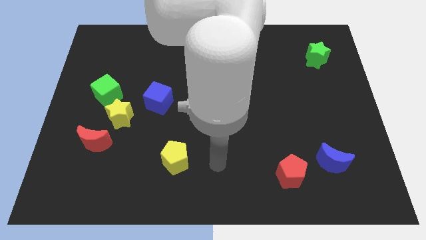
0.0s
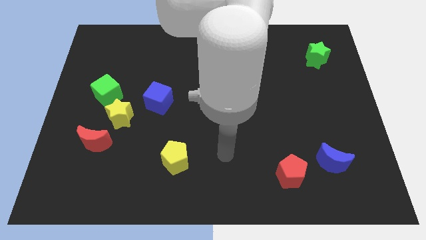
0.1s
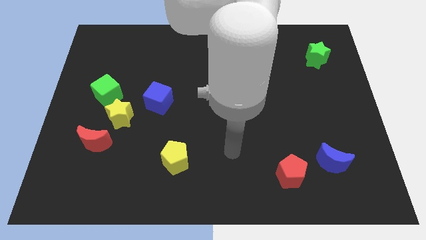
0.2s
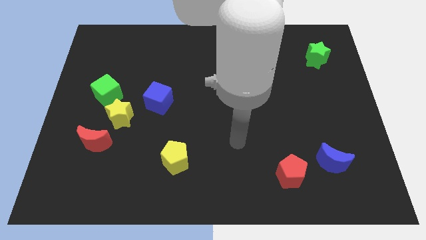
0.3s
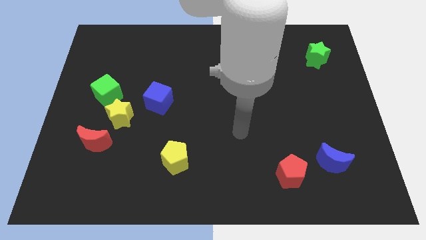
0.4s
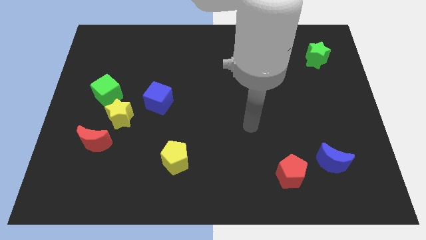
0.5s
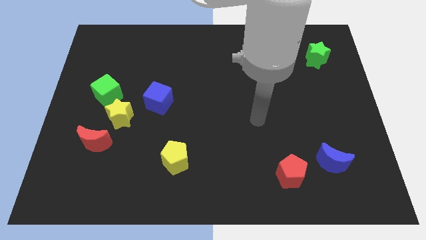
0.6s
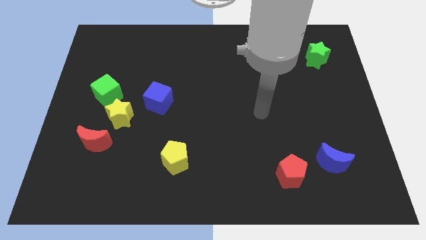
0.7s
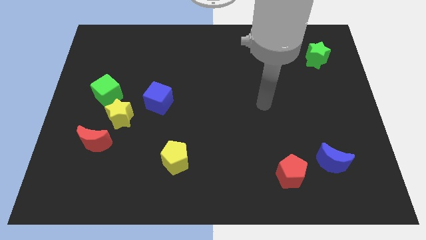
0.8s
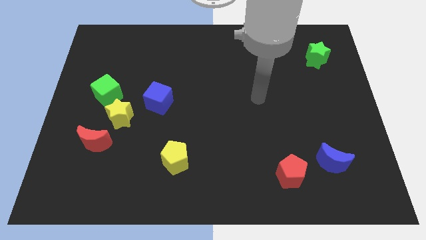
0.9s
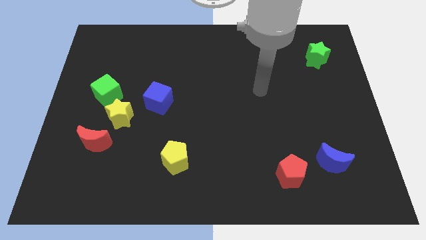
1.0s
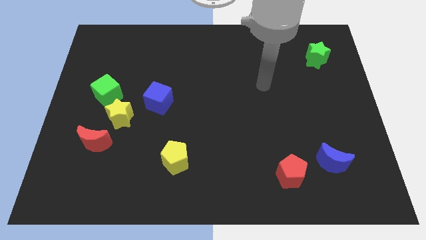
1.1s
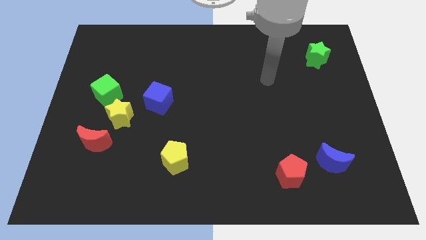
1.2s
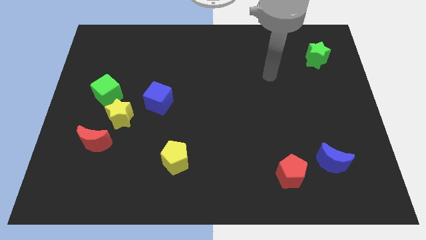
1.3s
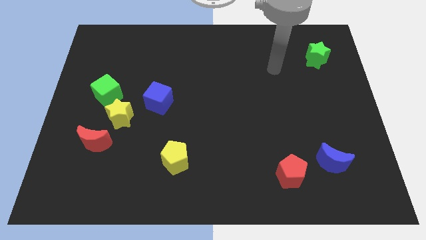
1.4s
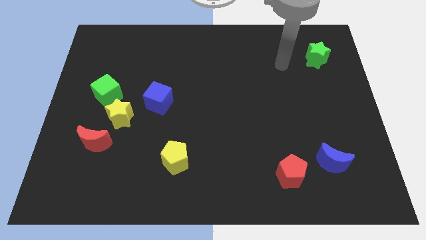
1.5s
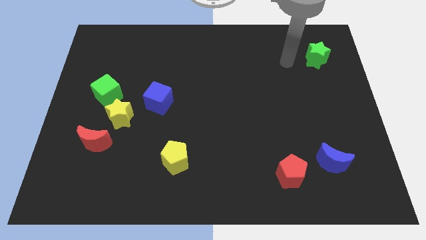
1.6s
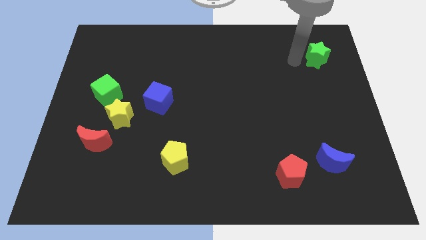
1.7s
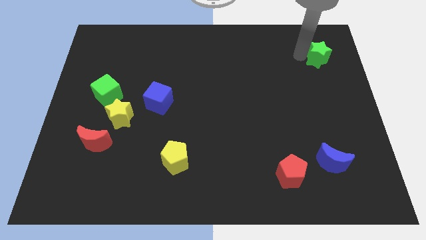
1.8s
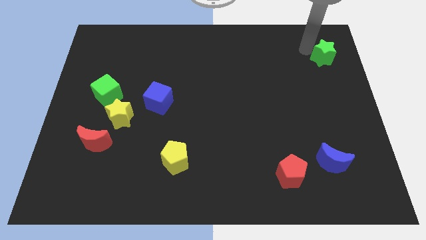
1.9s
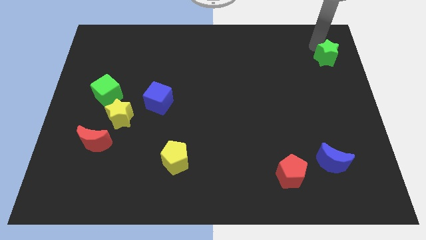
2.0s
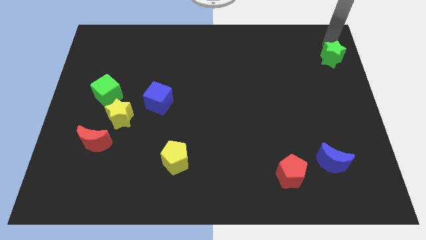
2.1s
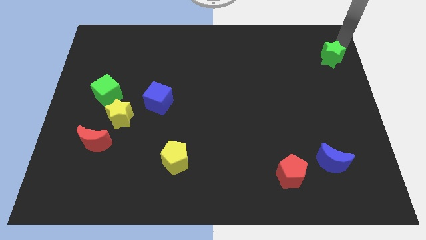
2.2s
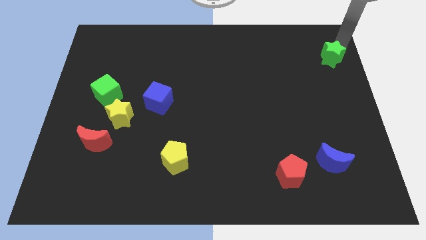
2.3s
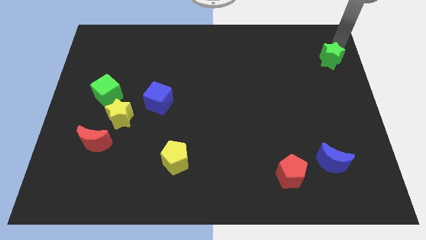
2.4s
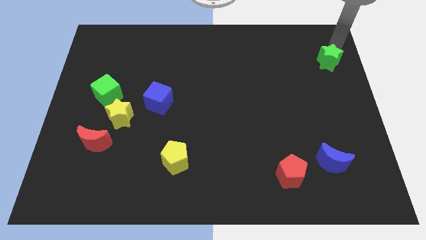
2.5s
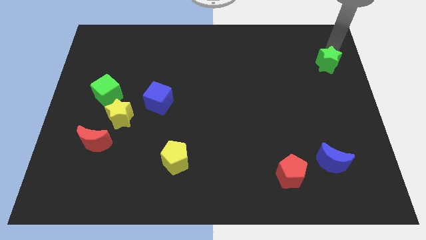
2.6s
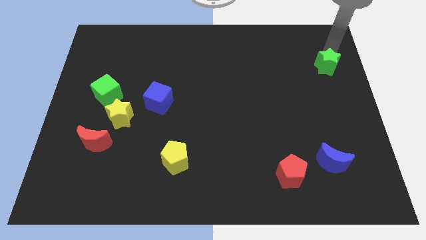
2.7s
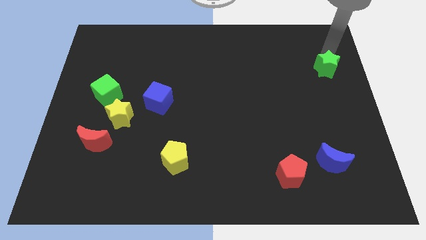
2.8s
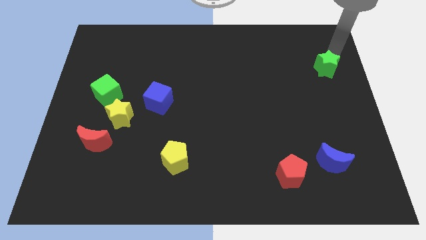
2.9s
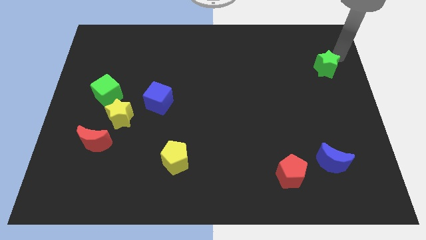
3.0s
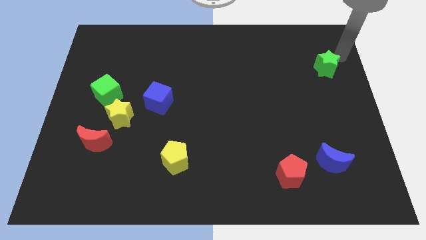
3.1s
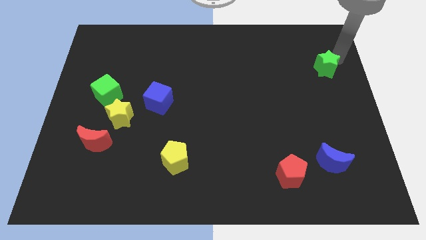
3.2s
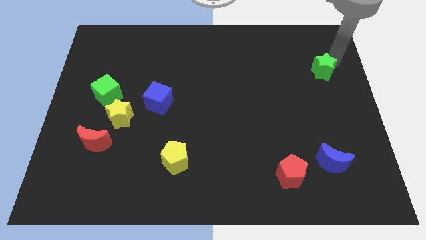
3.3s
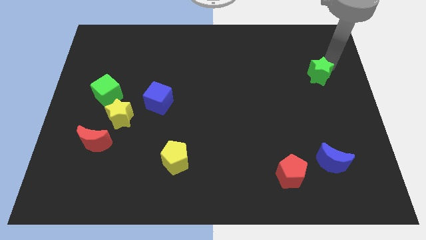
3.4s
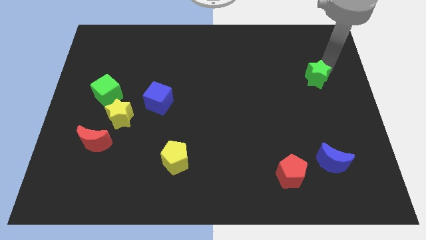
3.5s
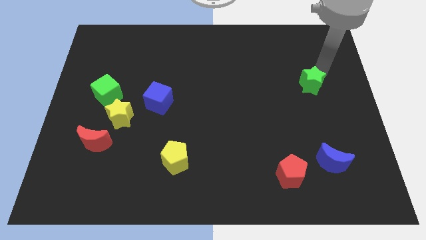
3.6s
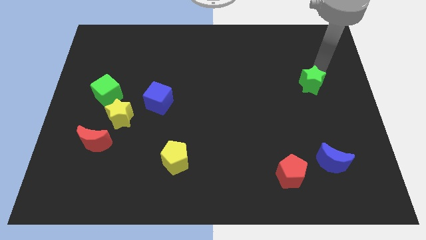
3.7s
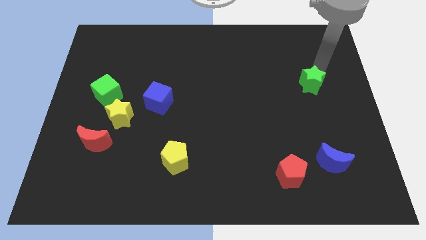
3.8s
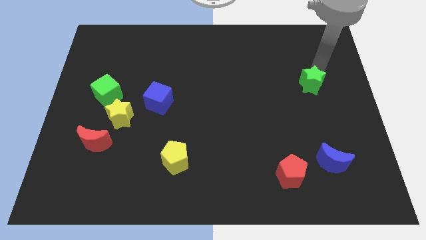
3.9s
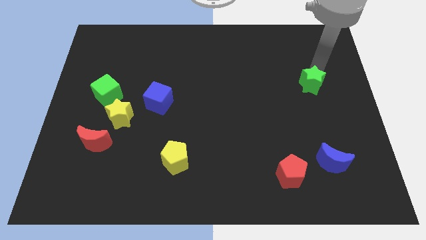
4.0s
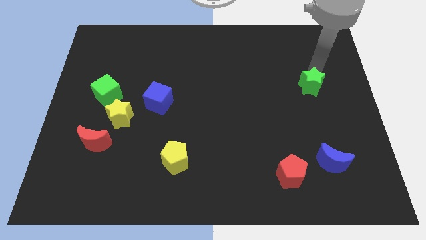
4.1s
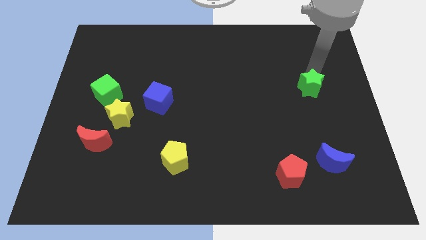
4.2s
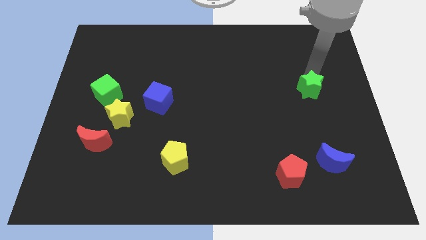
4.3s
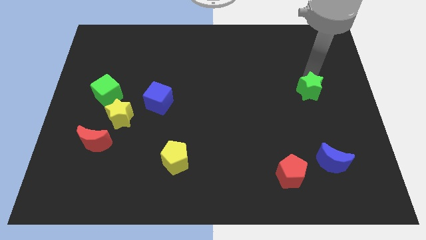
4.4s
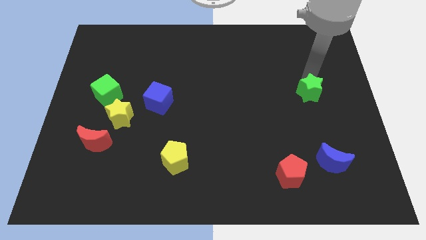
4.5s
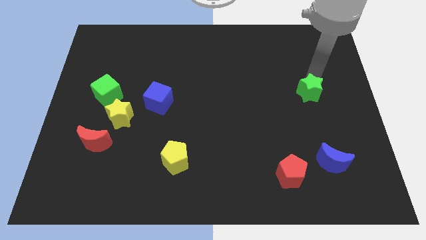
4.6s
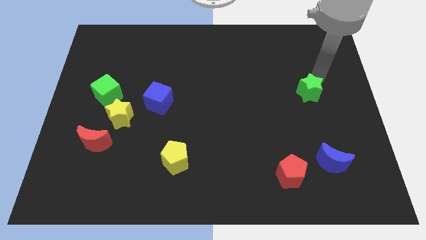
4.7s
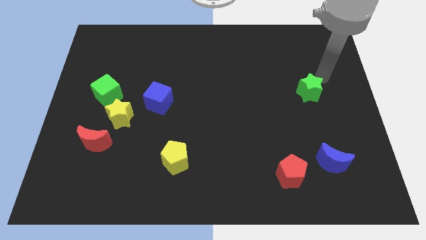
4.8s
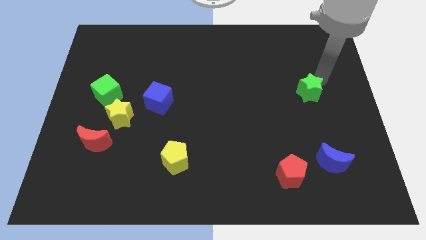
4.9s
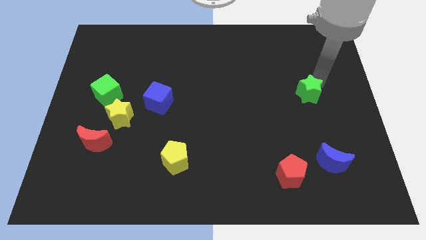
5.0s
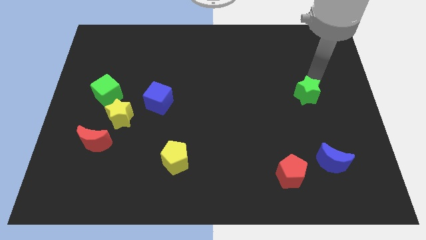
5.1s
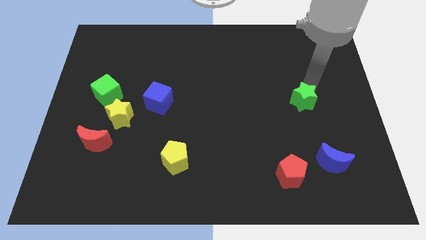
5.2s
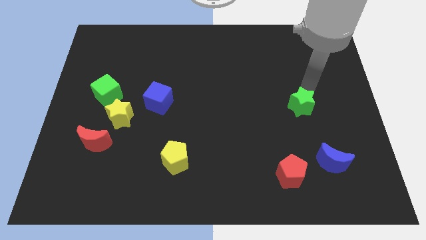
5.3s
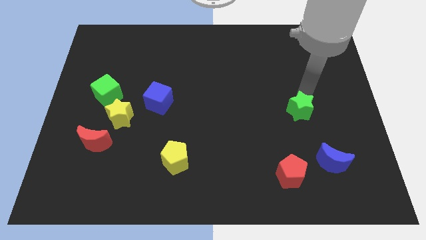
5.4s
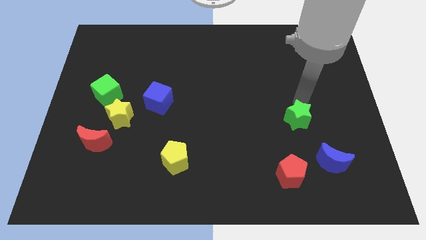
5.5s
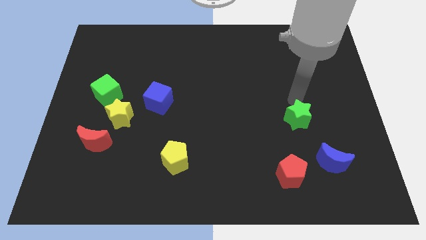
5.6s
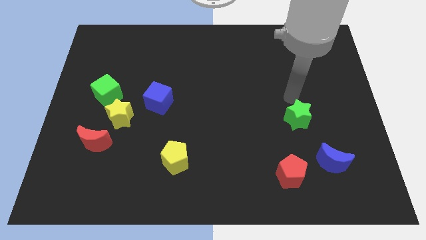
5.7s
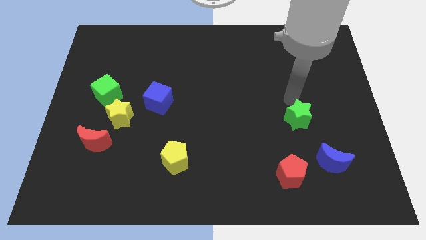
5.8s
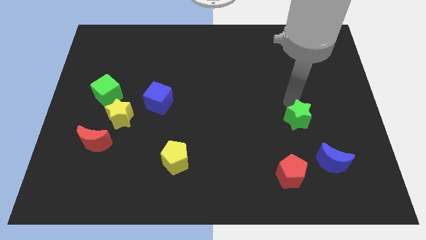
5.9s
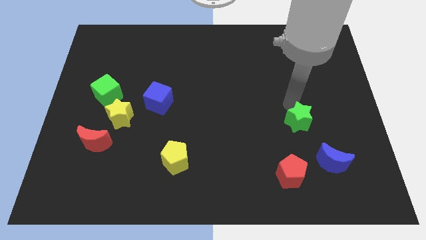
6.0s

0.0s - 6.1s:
put the green star to the top left of the blue moon
